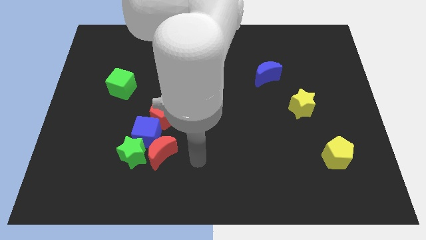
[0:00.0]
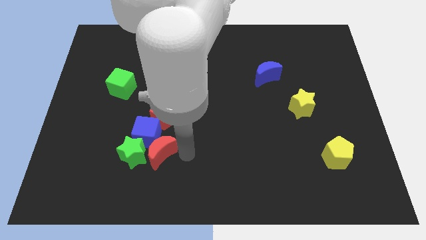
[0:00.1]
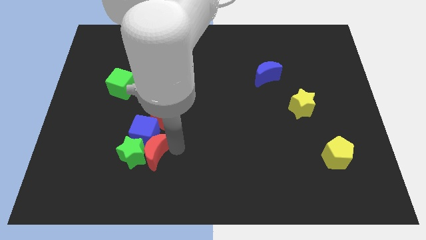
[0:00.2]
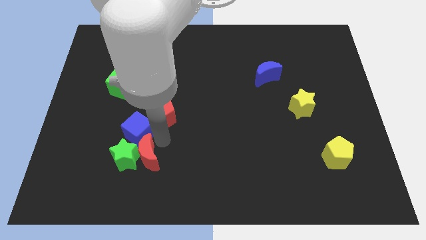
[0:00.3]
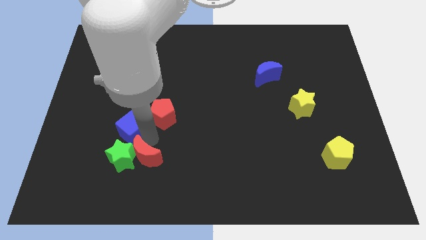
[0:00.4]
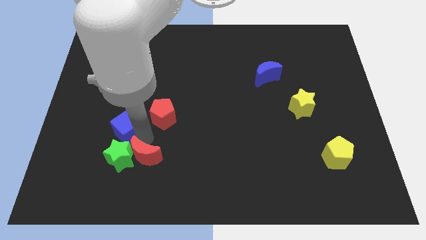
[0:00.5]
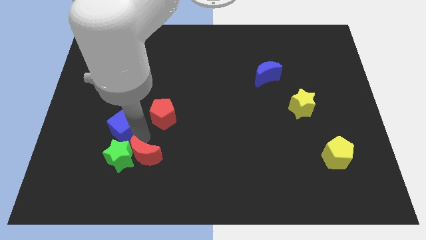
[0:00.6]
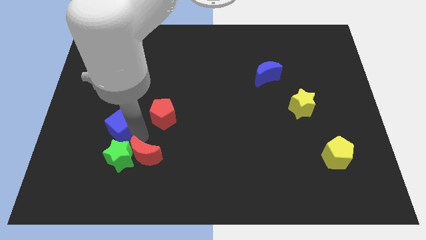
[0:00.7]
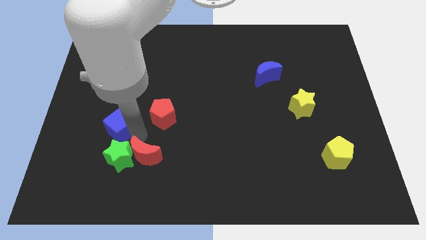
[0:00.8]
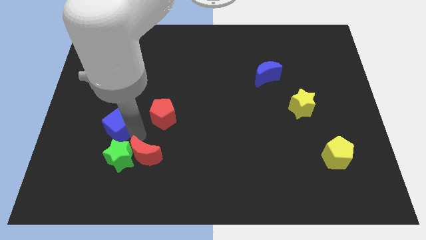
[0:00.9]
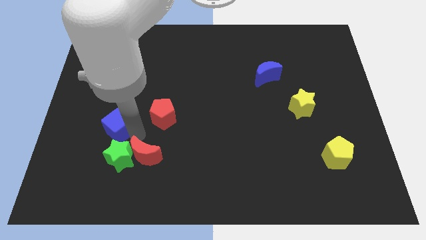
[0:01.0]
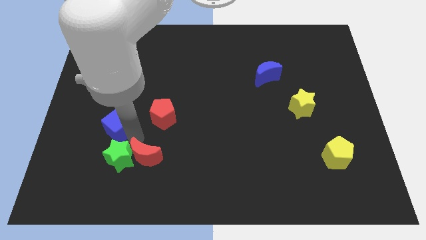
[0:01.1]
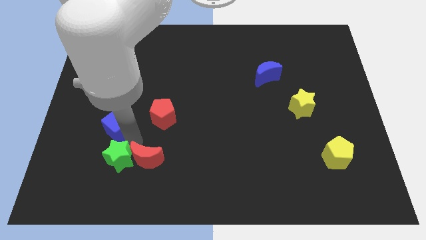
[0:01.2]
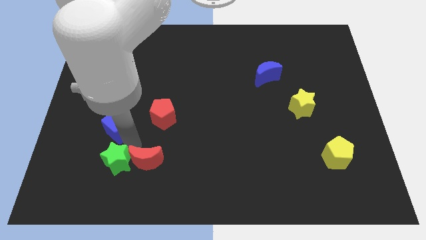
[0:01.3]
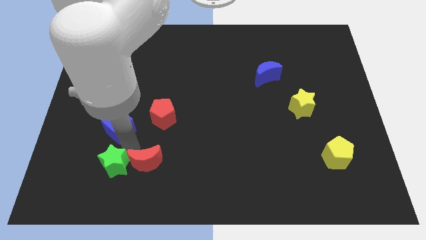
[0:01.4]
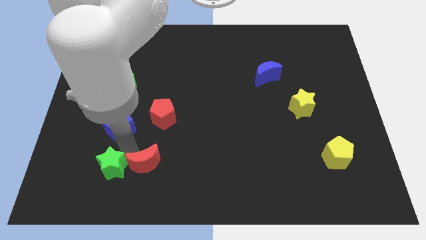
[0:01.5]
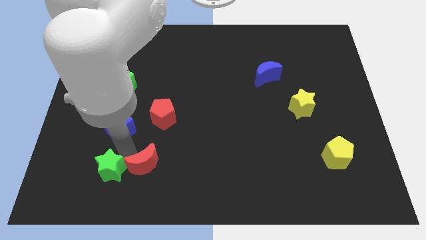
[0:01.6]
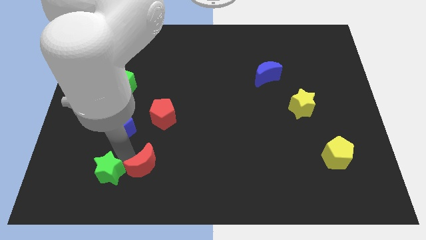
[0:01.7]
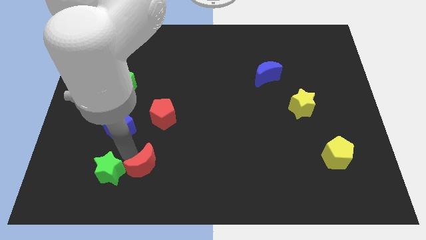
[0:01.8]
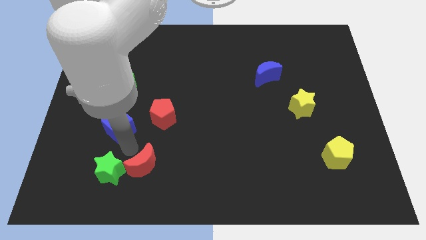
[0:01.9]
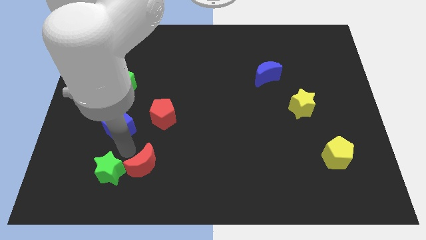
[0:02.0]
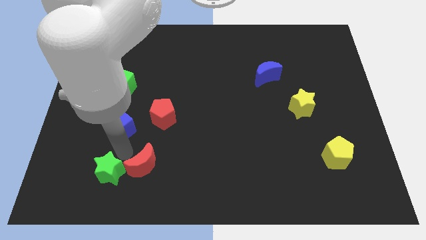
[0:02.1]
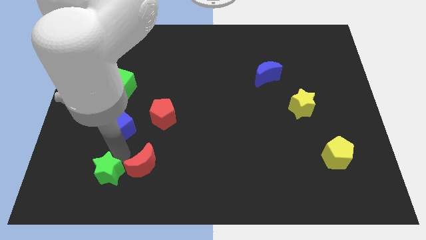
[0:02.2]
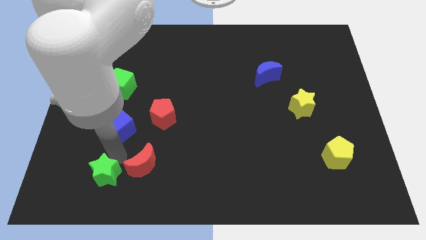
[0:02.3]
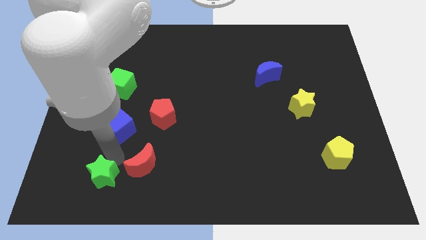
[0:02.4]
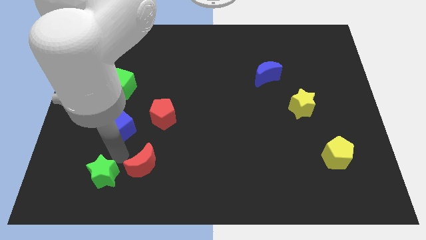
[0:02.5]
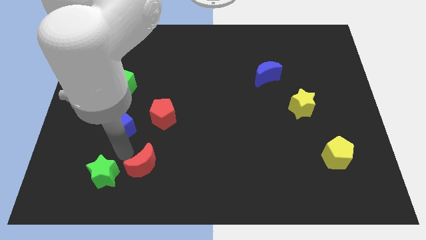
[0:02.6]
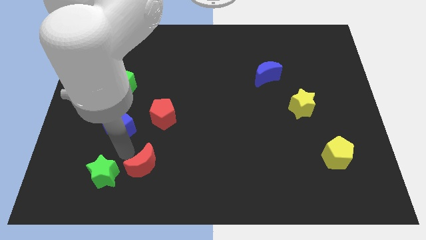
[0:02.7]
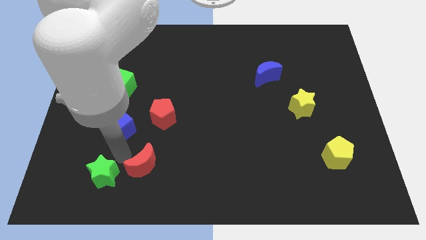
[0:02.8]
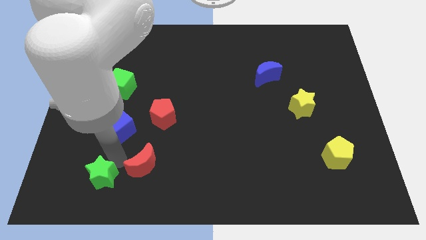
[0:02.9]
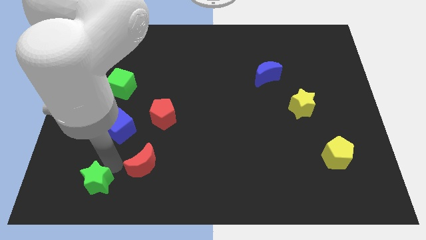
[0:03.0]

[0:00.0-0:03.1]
separate the green star from the blue cube and red moon

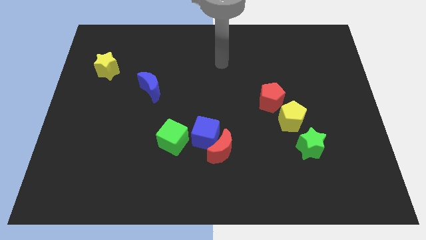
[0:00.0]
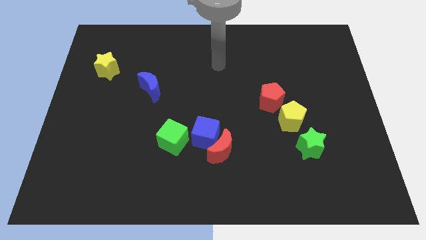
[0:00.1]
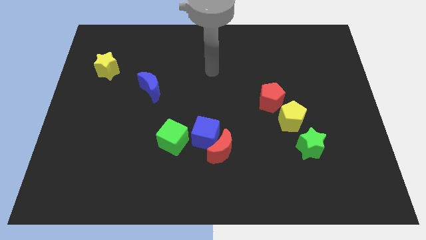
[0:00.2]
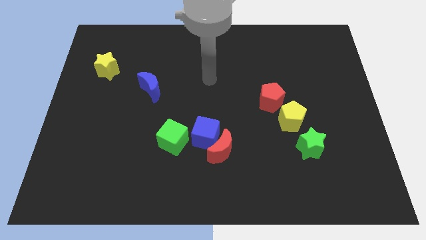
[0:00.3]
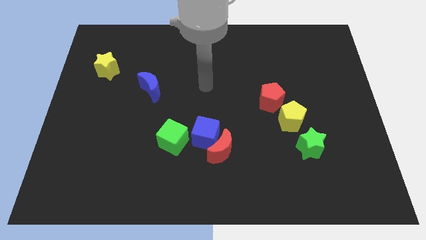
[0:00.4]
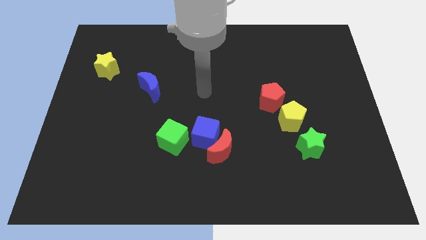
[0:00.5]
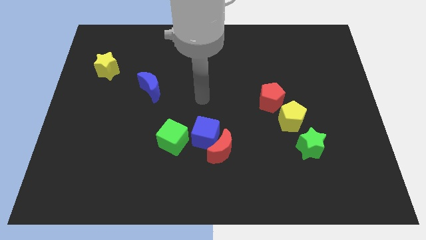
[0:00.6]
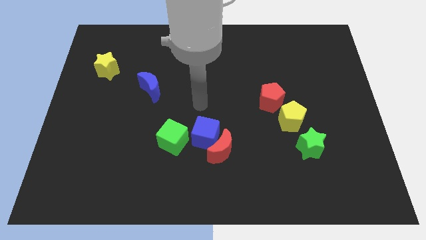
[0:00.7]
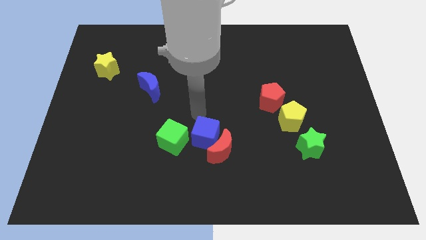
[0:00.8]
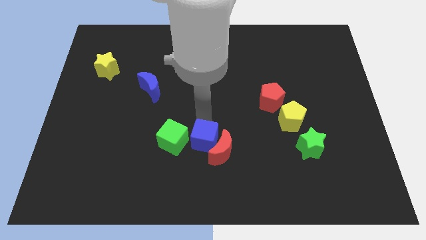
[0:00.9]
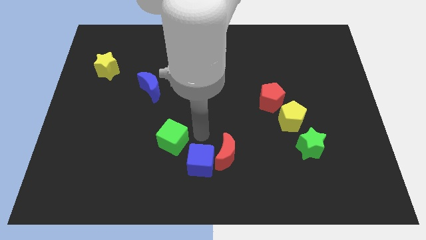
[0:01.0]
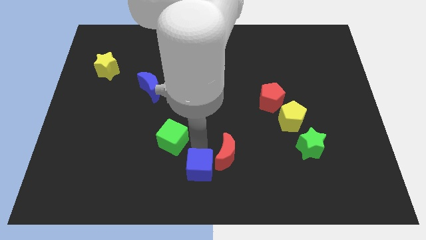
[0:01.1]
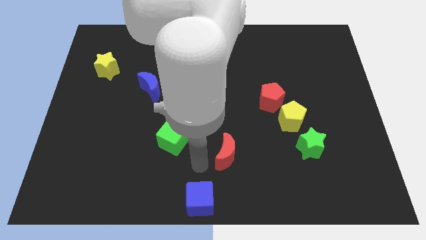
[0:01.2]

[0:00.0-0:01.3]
move the red moon away from the blue cube

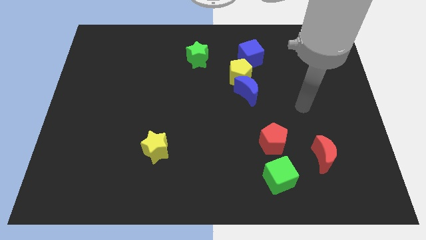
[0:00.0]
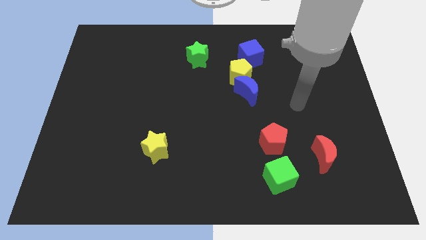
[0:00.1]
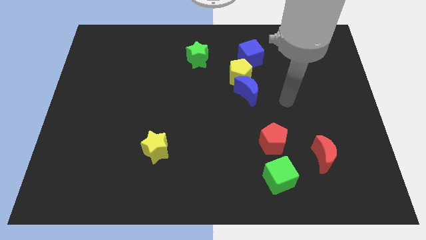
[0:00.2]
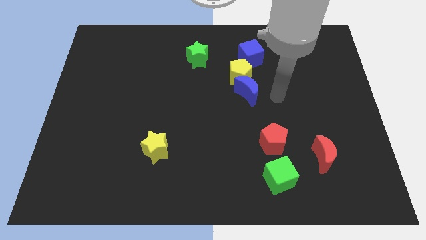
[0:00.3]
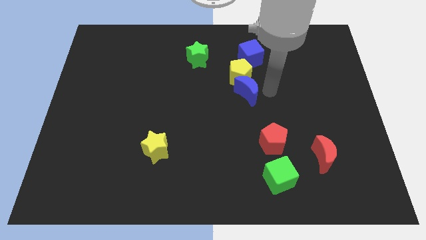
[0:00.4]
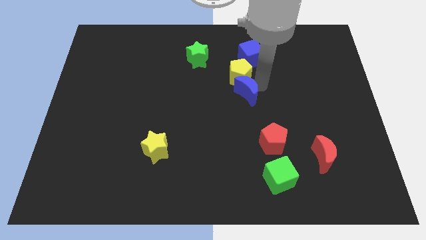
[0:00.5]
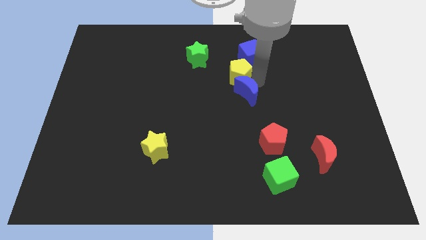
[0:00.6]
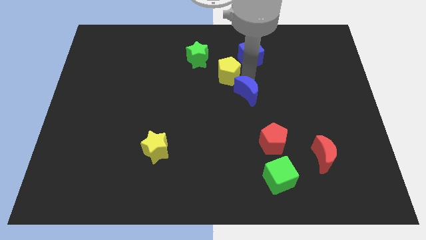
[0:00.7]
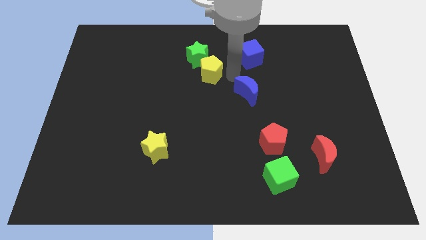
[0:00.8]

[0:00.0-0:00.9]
pull the blue moon apart from the yellow pentagon

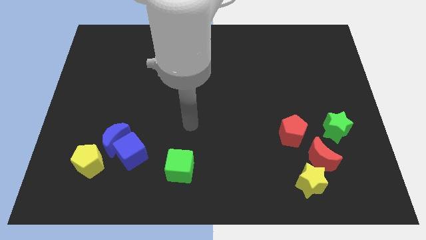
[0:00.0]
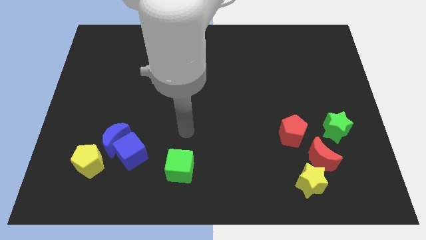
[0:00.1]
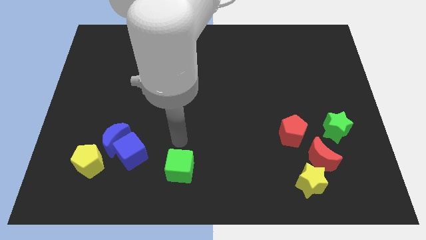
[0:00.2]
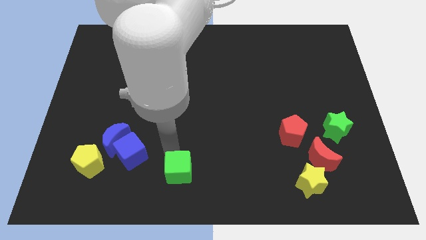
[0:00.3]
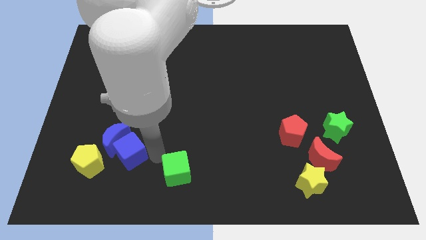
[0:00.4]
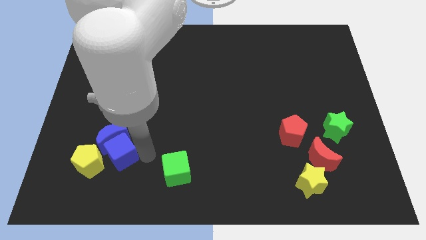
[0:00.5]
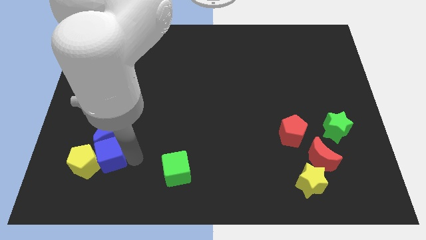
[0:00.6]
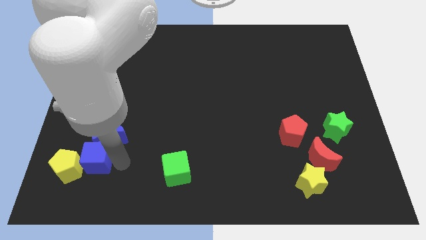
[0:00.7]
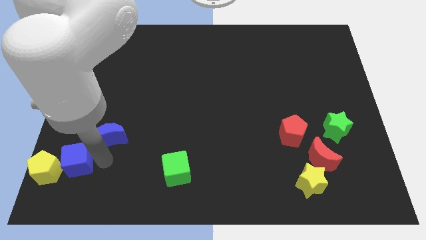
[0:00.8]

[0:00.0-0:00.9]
move the blue moon away from the blue cube and yellow pentagon

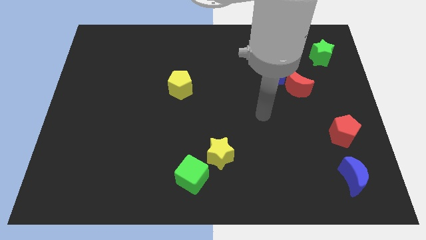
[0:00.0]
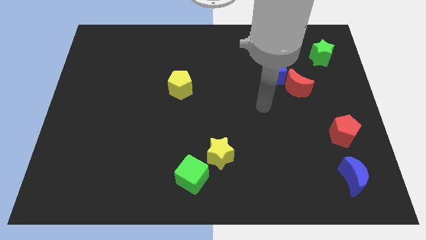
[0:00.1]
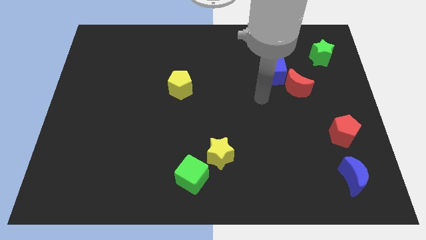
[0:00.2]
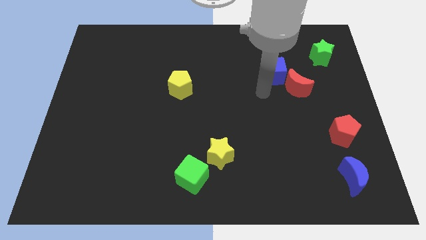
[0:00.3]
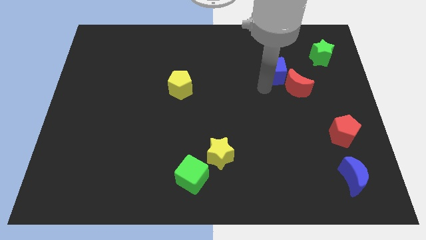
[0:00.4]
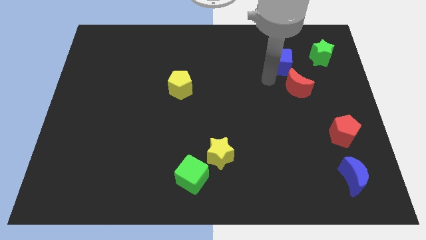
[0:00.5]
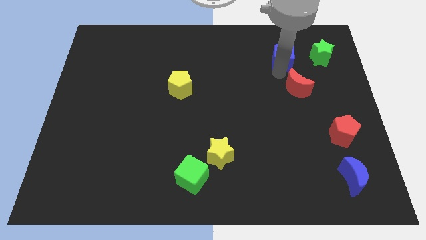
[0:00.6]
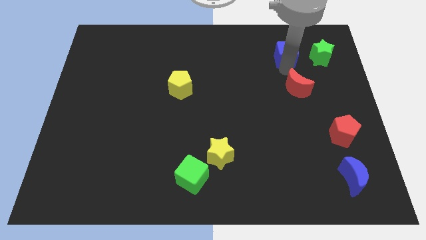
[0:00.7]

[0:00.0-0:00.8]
pull the red moon apart from the blue cube

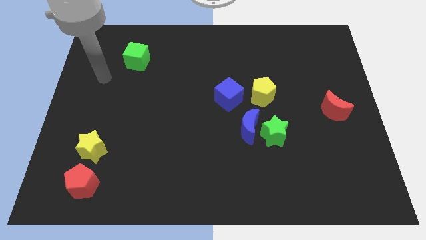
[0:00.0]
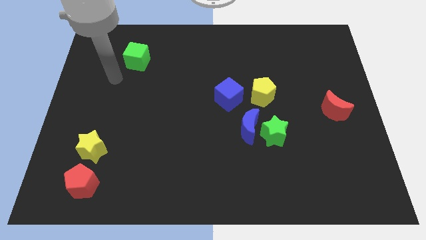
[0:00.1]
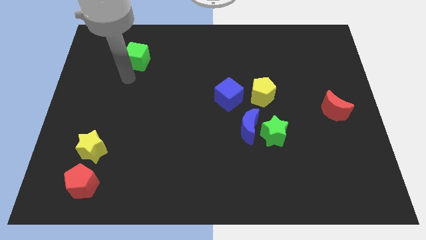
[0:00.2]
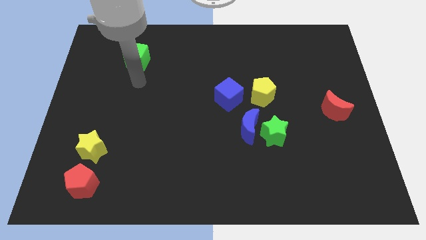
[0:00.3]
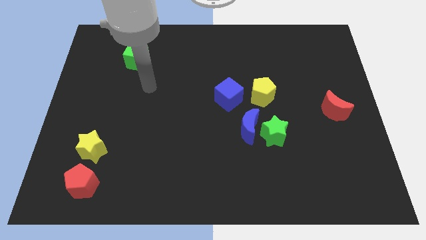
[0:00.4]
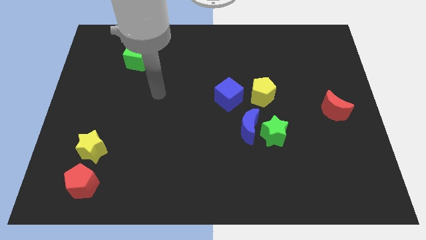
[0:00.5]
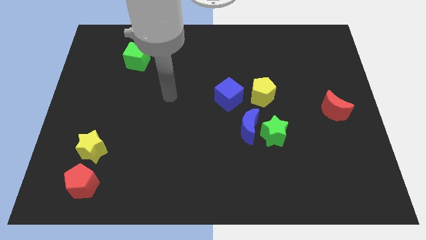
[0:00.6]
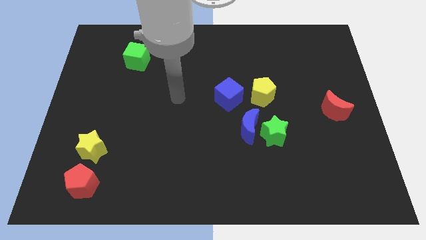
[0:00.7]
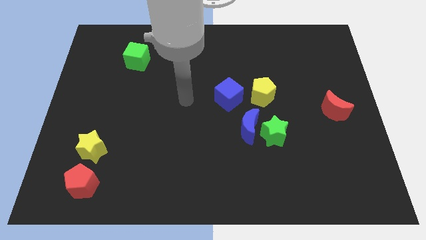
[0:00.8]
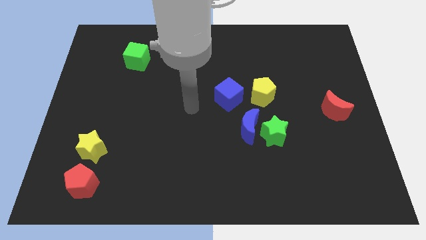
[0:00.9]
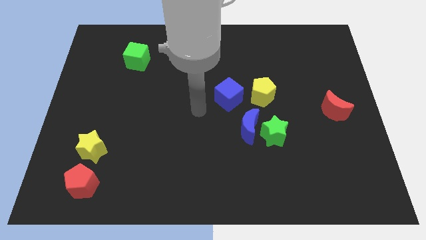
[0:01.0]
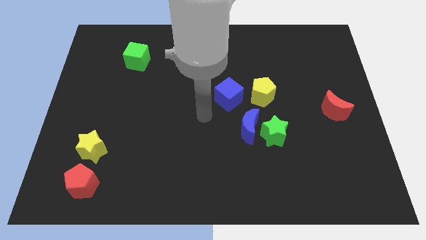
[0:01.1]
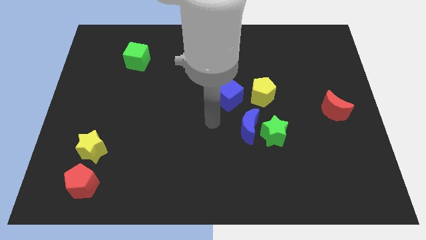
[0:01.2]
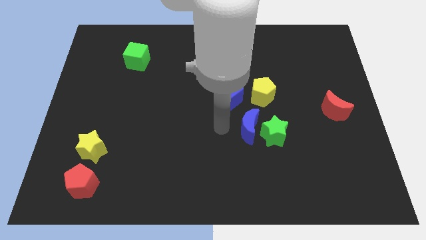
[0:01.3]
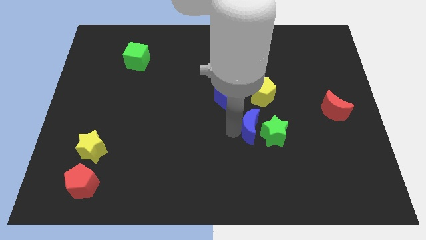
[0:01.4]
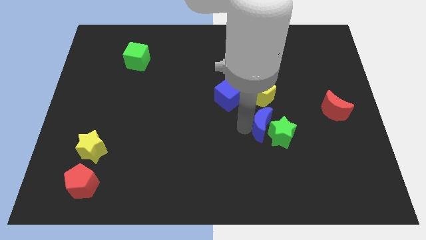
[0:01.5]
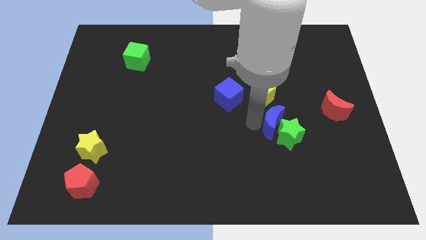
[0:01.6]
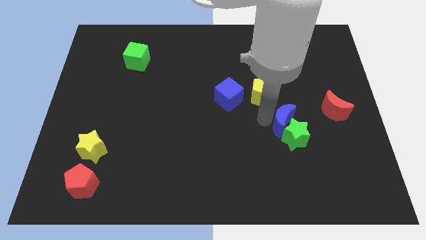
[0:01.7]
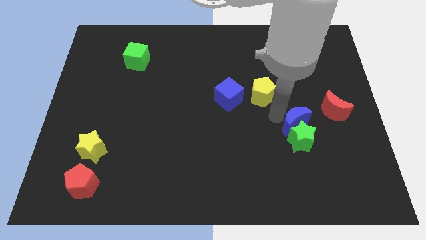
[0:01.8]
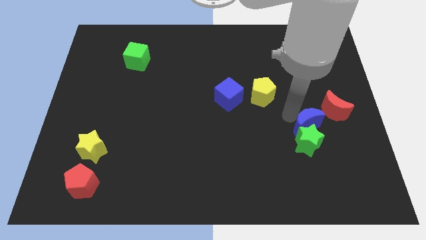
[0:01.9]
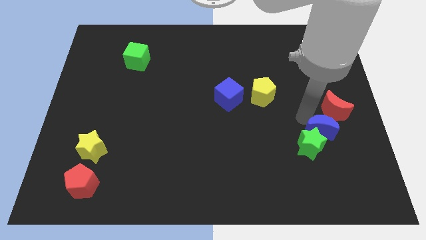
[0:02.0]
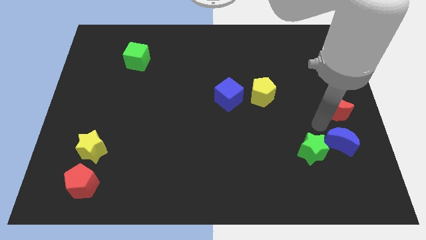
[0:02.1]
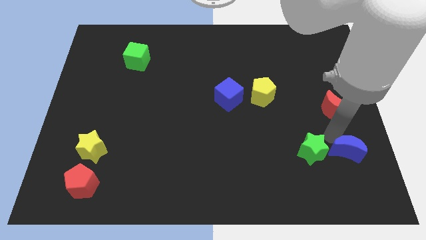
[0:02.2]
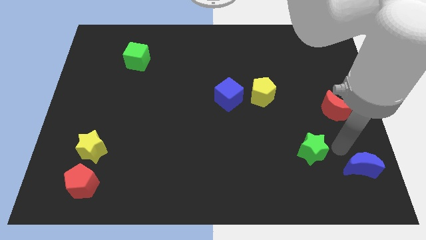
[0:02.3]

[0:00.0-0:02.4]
pull the green star apart from the blue moon

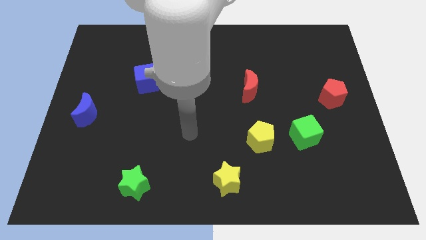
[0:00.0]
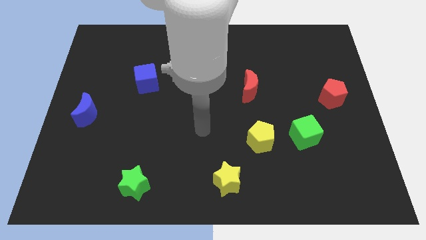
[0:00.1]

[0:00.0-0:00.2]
separate the green cube from the yellow pentagon
